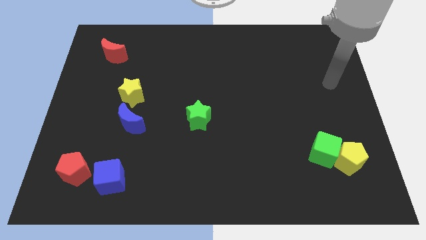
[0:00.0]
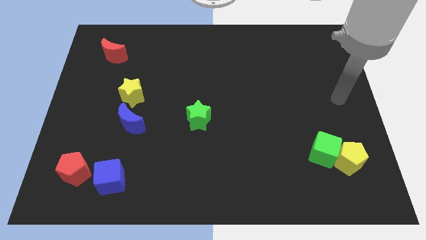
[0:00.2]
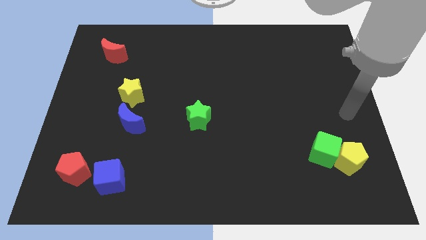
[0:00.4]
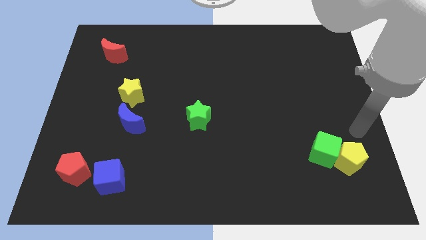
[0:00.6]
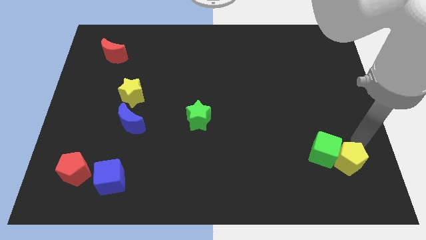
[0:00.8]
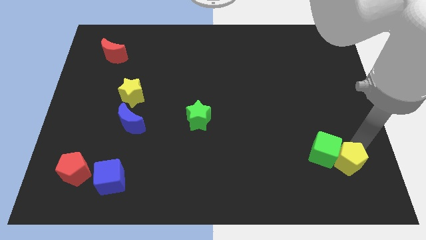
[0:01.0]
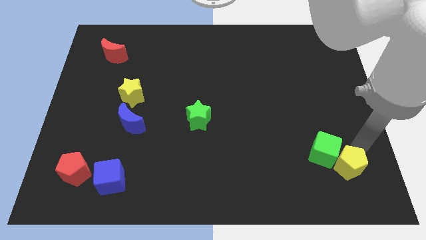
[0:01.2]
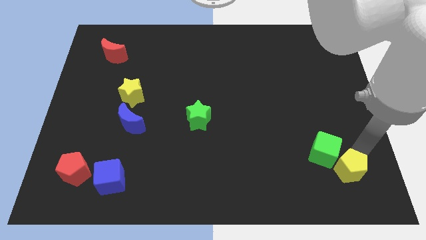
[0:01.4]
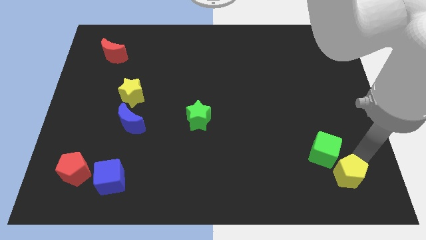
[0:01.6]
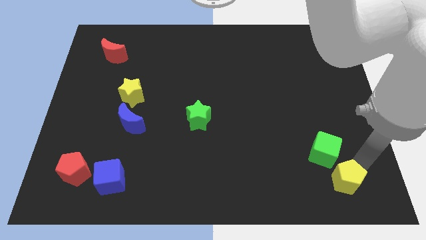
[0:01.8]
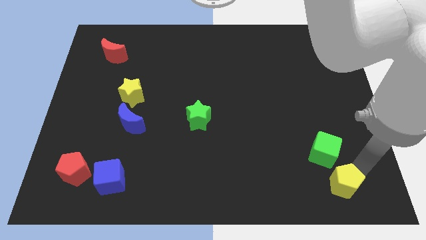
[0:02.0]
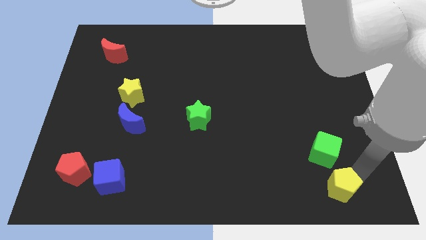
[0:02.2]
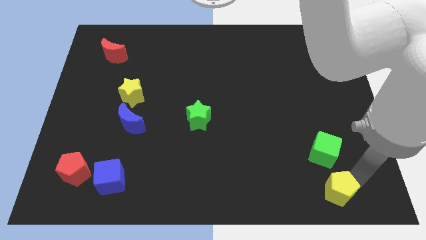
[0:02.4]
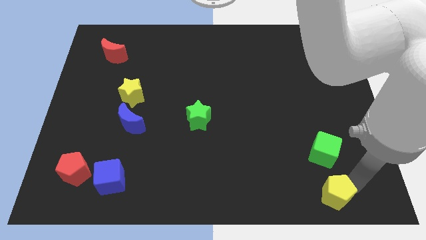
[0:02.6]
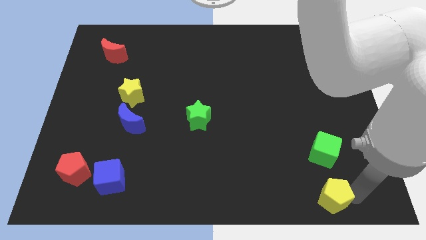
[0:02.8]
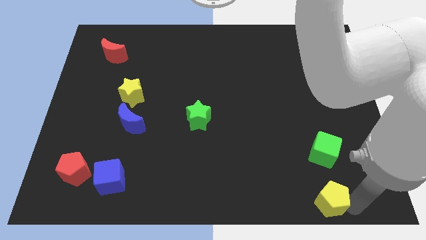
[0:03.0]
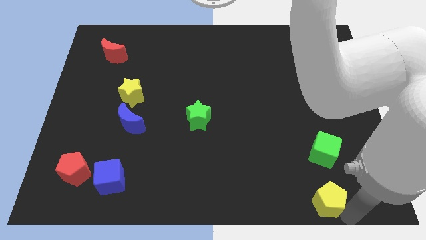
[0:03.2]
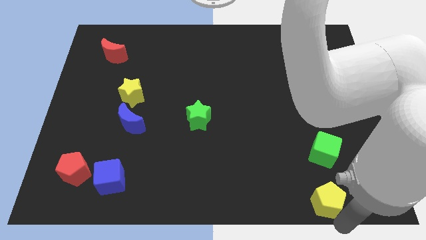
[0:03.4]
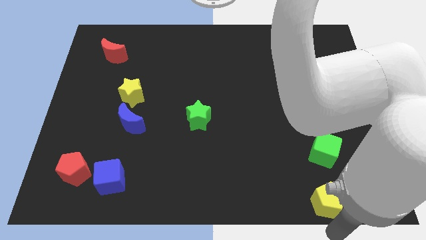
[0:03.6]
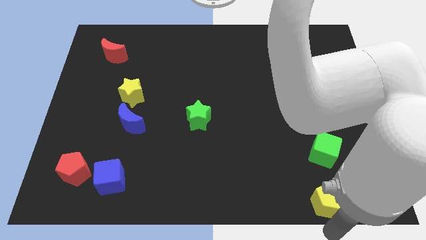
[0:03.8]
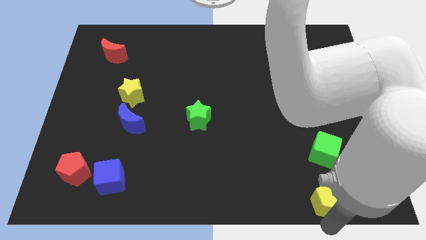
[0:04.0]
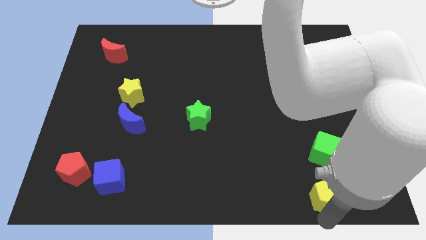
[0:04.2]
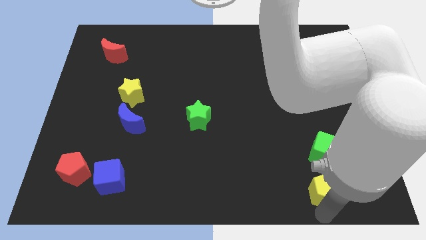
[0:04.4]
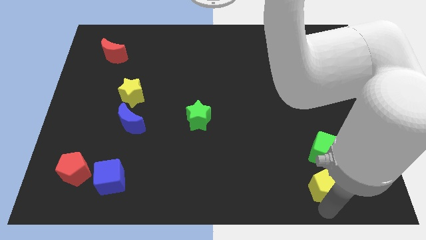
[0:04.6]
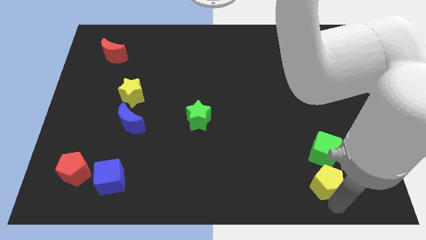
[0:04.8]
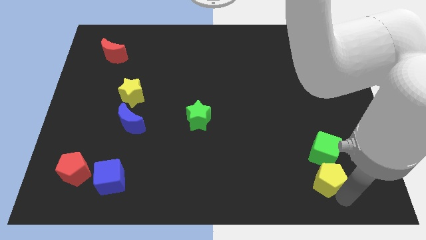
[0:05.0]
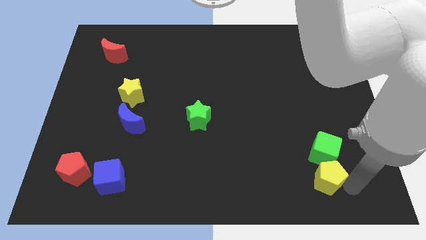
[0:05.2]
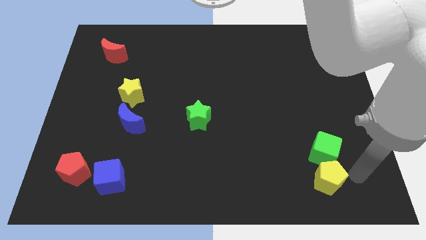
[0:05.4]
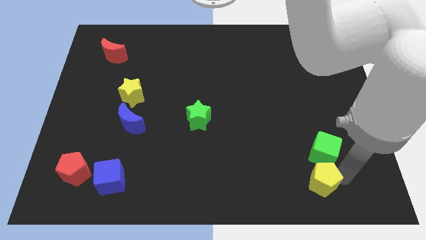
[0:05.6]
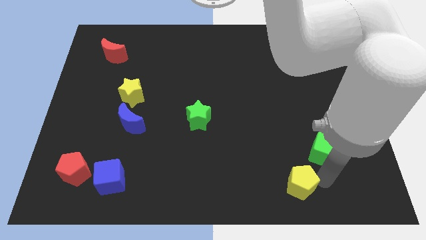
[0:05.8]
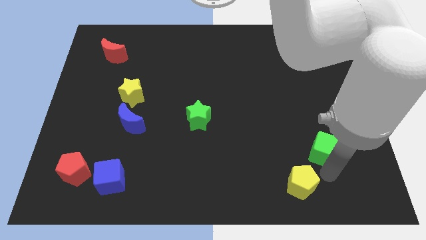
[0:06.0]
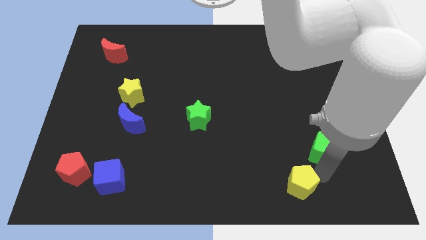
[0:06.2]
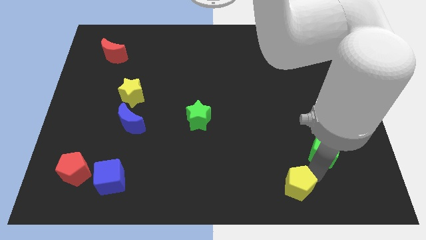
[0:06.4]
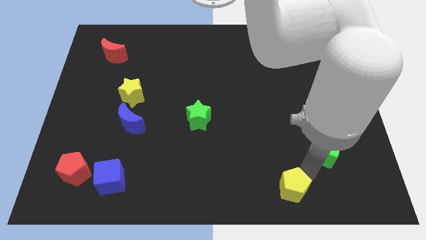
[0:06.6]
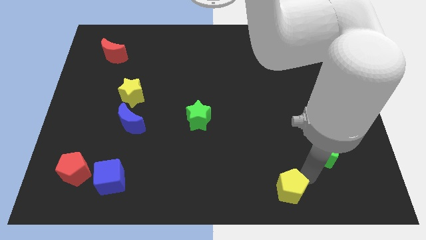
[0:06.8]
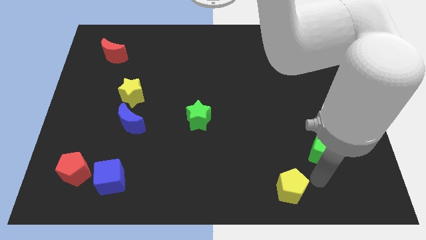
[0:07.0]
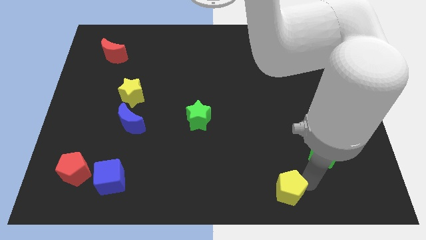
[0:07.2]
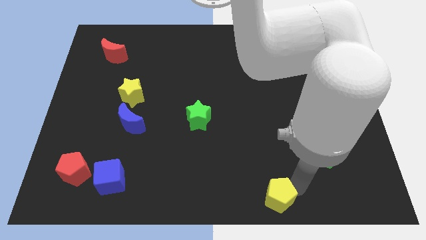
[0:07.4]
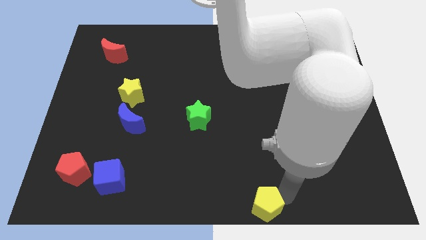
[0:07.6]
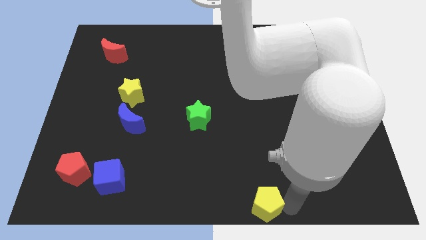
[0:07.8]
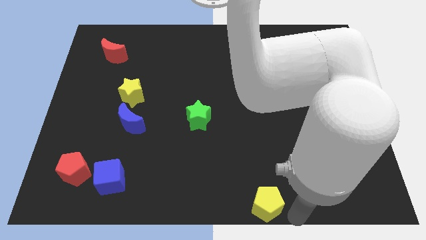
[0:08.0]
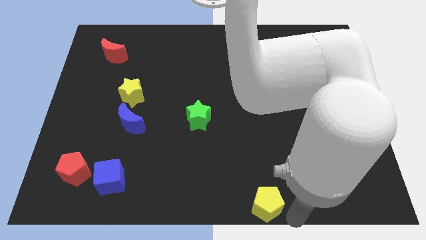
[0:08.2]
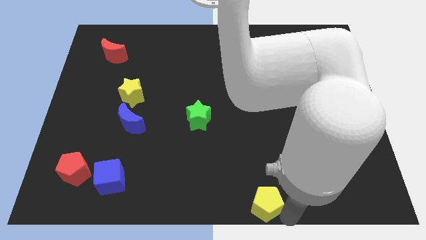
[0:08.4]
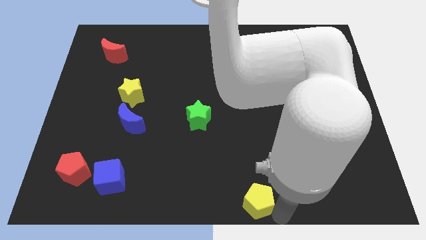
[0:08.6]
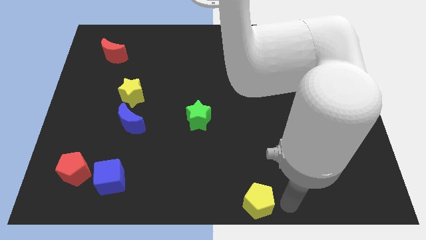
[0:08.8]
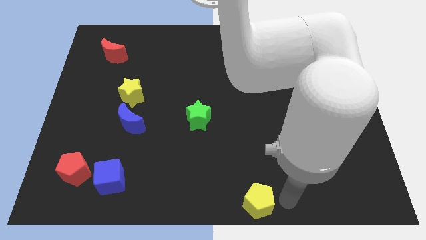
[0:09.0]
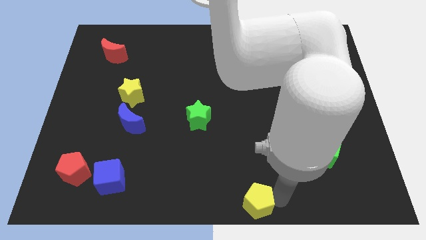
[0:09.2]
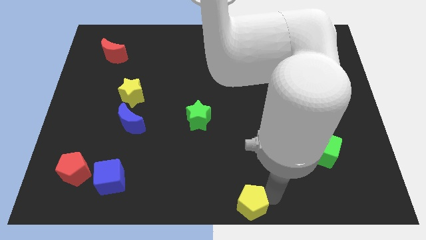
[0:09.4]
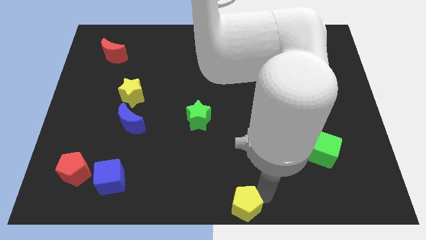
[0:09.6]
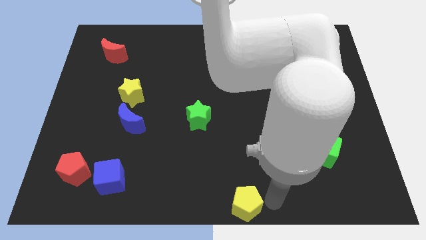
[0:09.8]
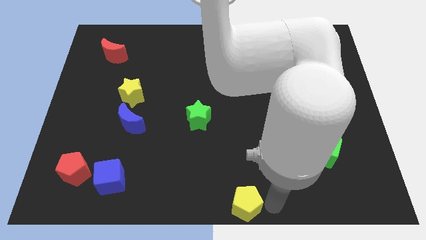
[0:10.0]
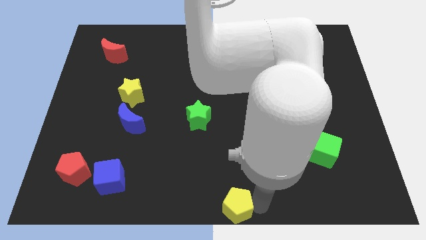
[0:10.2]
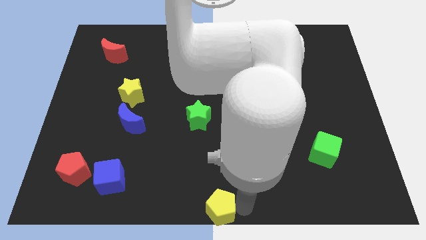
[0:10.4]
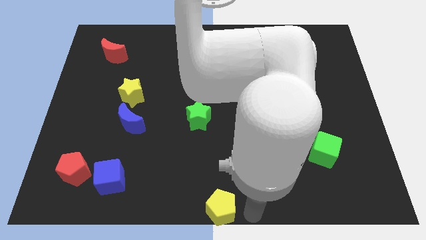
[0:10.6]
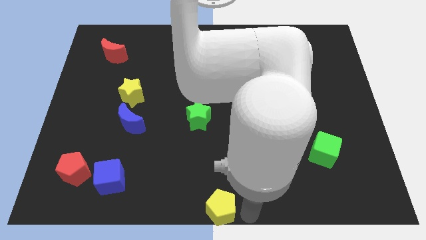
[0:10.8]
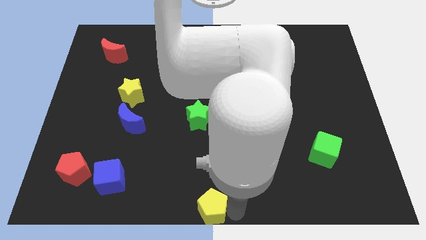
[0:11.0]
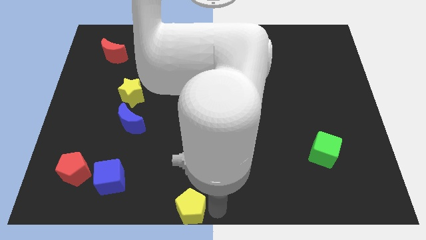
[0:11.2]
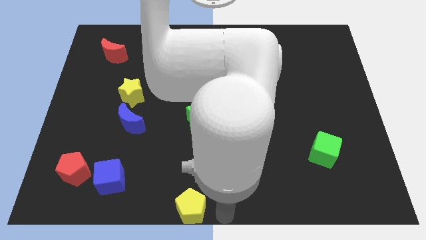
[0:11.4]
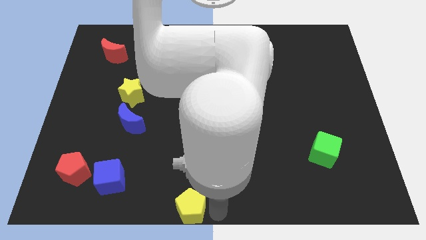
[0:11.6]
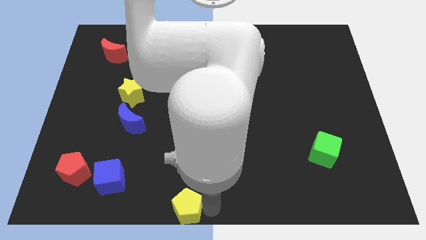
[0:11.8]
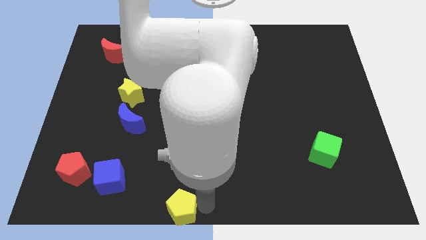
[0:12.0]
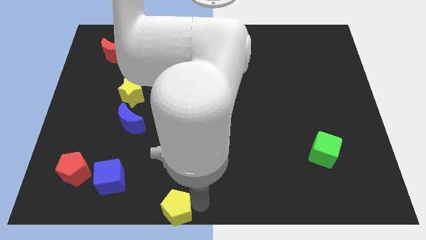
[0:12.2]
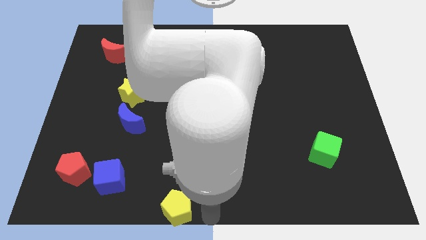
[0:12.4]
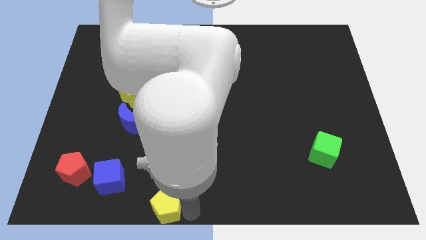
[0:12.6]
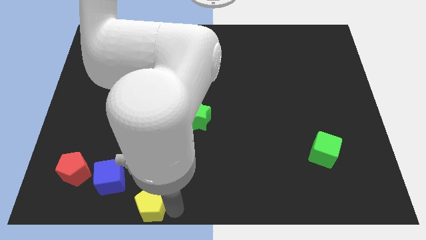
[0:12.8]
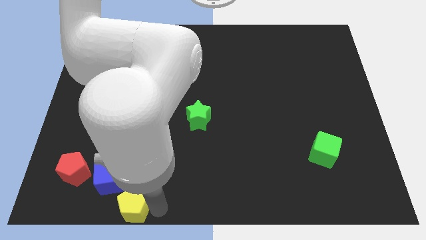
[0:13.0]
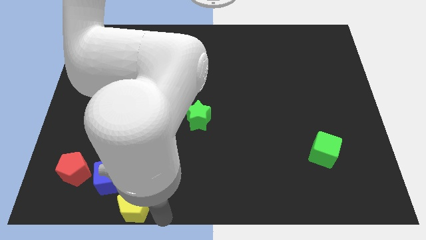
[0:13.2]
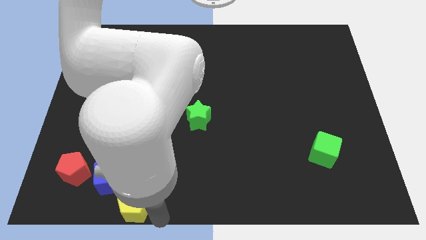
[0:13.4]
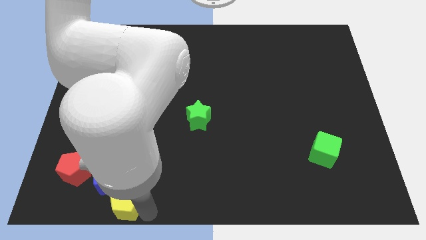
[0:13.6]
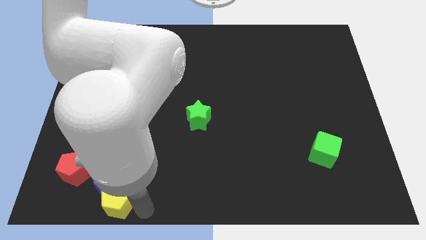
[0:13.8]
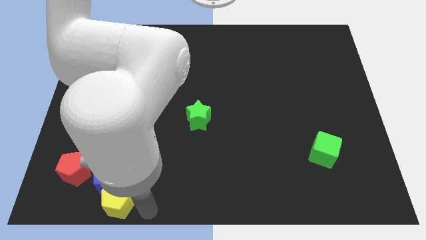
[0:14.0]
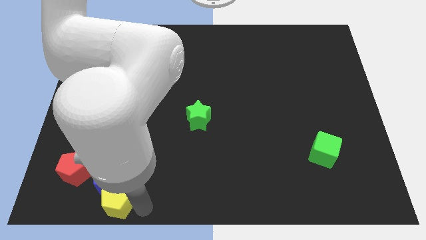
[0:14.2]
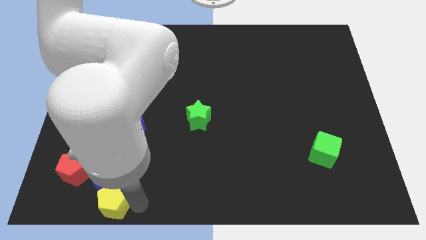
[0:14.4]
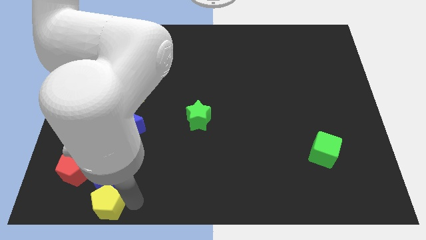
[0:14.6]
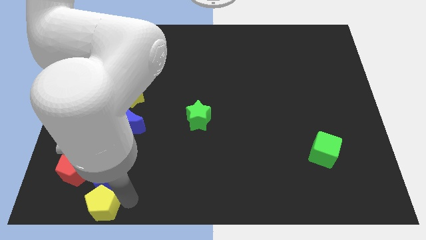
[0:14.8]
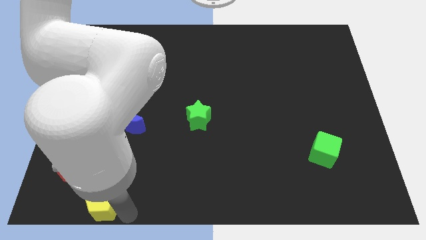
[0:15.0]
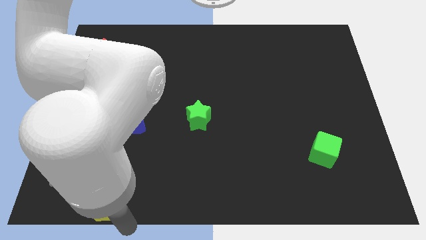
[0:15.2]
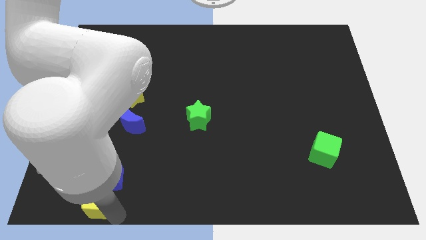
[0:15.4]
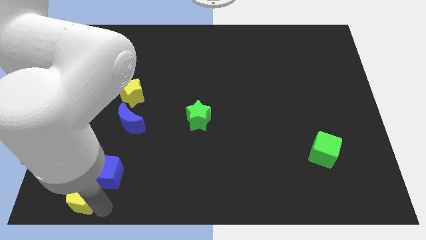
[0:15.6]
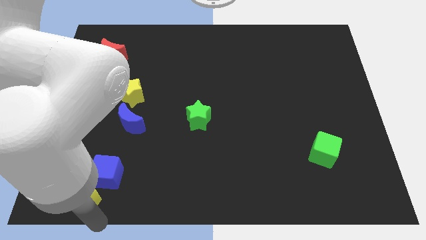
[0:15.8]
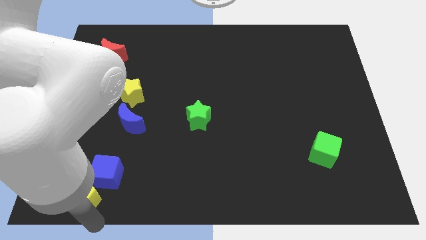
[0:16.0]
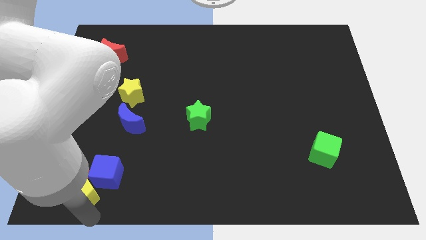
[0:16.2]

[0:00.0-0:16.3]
push the yellow pentagon to the red pentagon
